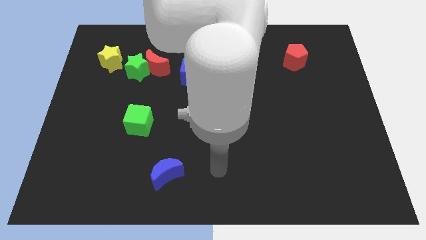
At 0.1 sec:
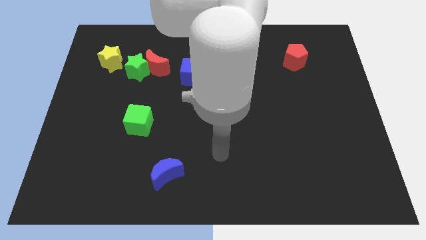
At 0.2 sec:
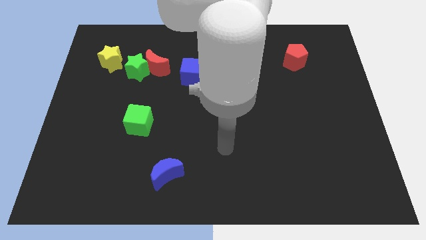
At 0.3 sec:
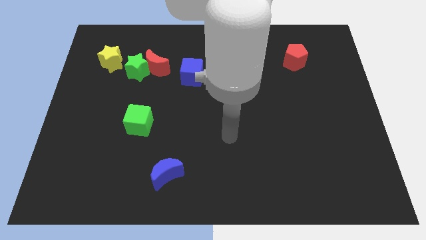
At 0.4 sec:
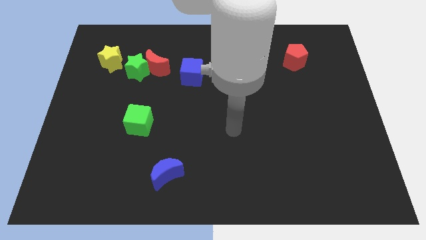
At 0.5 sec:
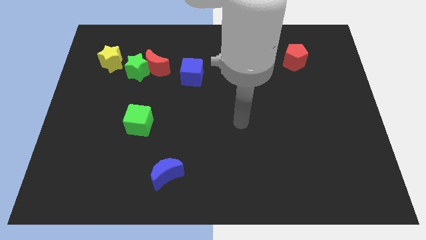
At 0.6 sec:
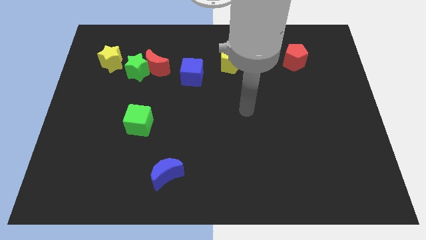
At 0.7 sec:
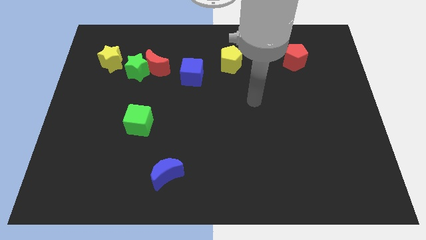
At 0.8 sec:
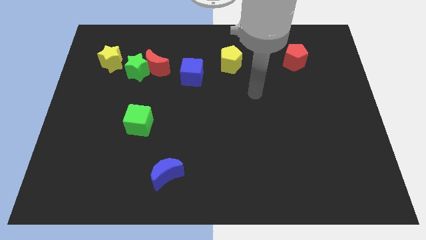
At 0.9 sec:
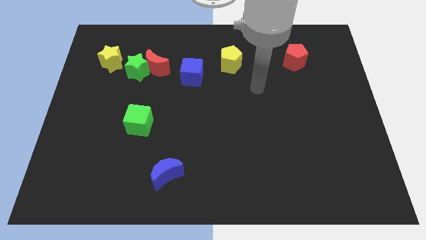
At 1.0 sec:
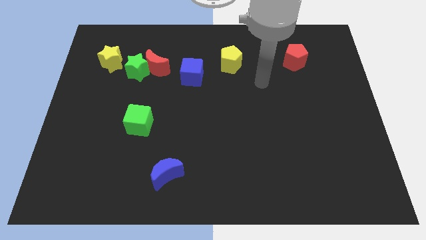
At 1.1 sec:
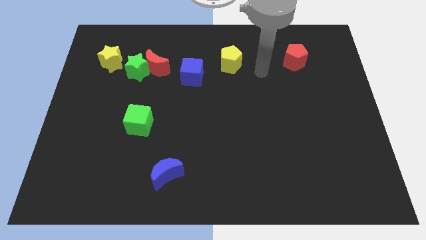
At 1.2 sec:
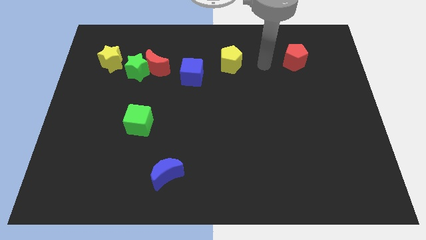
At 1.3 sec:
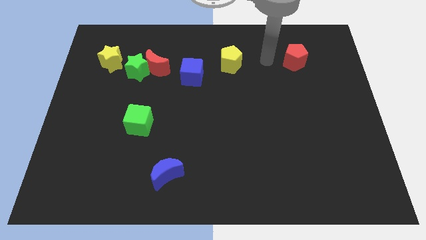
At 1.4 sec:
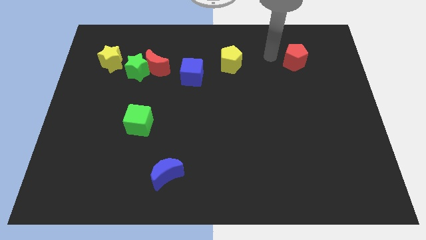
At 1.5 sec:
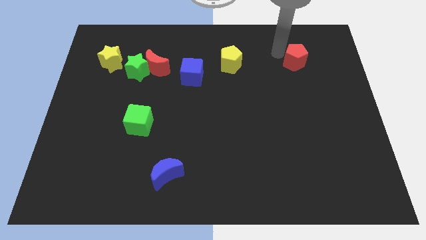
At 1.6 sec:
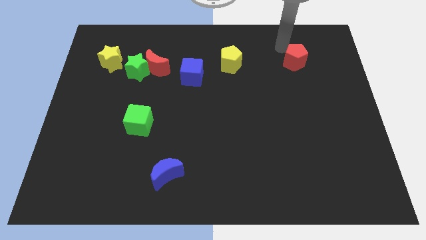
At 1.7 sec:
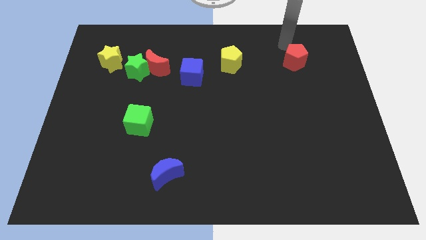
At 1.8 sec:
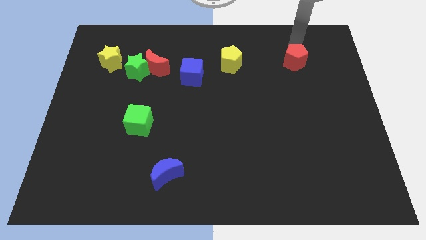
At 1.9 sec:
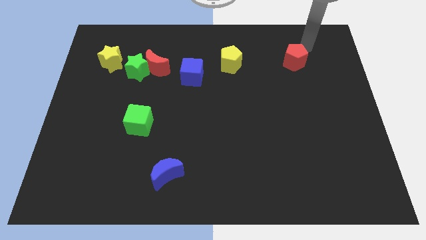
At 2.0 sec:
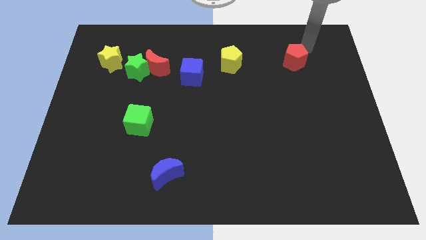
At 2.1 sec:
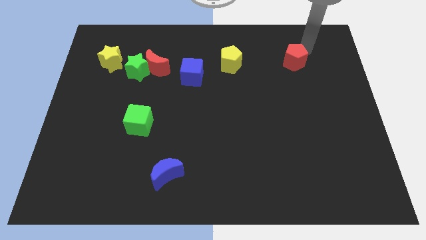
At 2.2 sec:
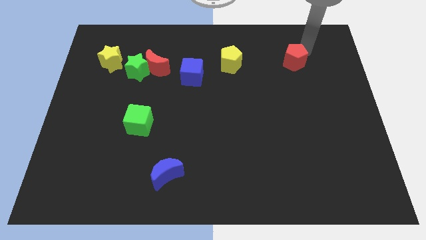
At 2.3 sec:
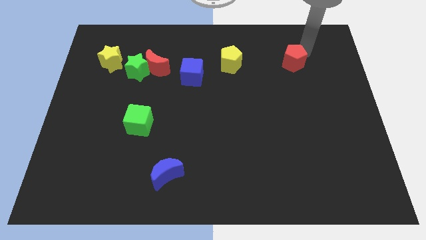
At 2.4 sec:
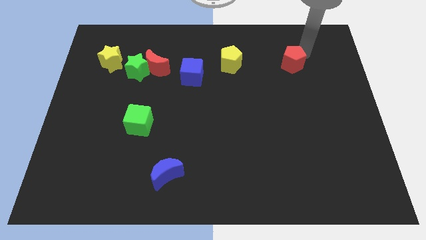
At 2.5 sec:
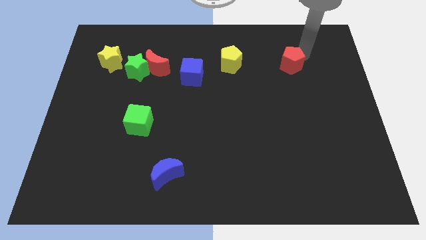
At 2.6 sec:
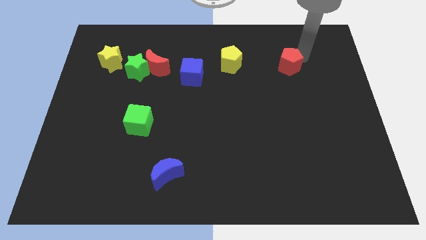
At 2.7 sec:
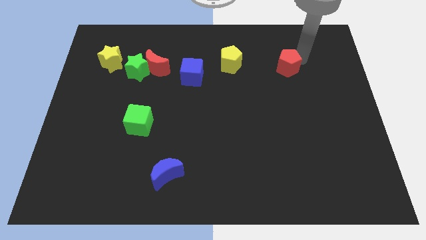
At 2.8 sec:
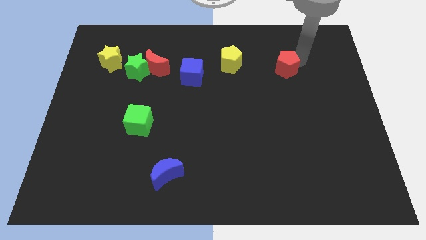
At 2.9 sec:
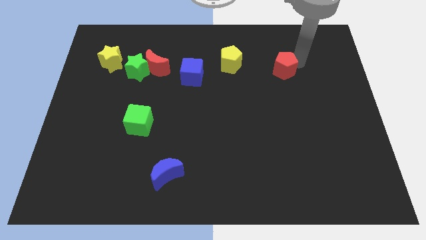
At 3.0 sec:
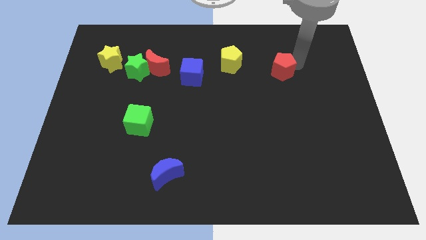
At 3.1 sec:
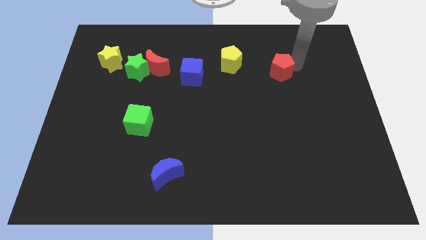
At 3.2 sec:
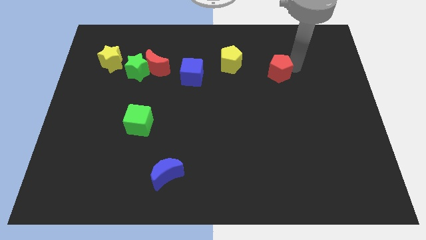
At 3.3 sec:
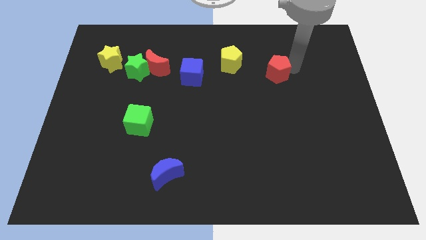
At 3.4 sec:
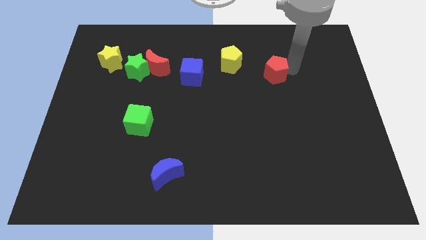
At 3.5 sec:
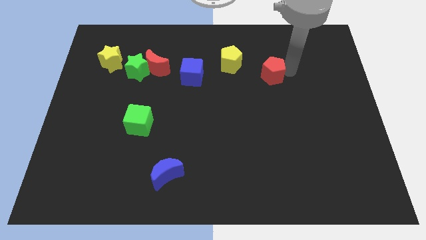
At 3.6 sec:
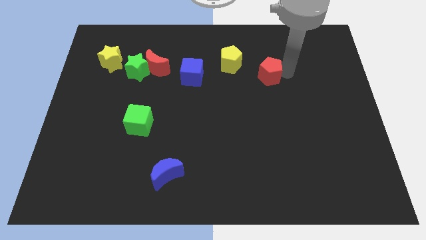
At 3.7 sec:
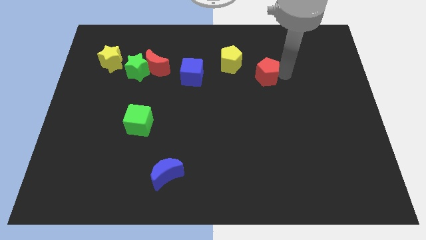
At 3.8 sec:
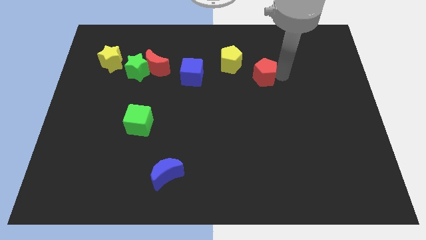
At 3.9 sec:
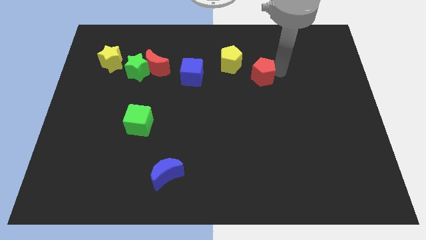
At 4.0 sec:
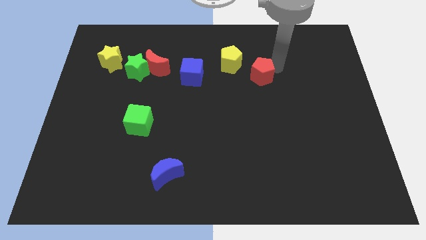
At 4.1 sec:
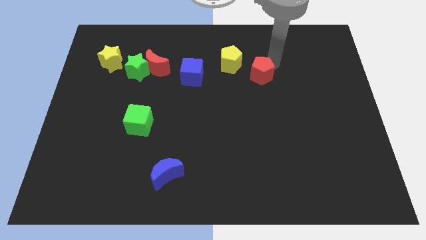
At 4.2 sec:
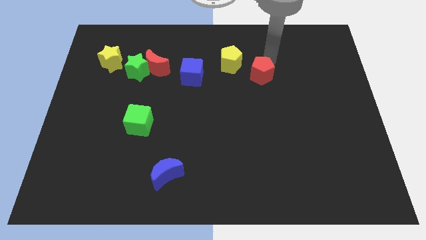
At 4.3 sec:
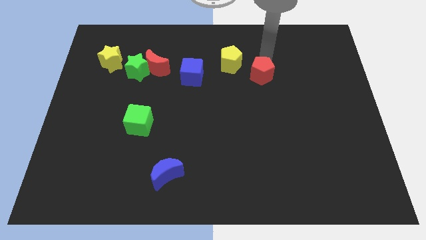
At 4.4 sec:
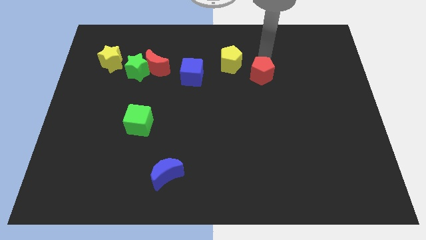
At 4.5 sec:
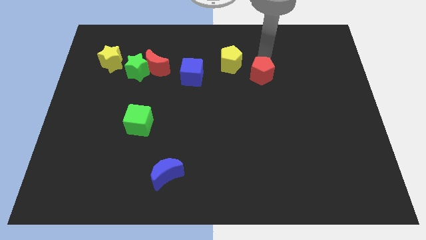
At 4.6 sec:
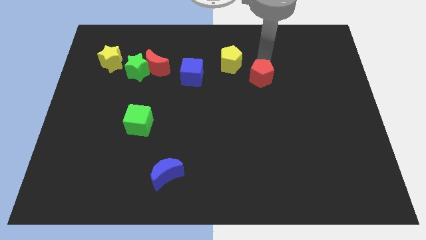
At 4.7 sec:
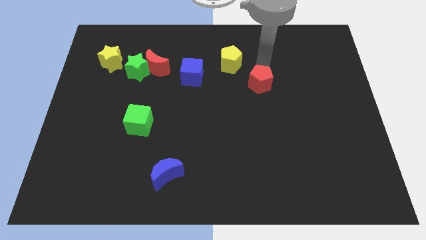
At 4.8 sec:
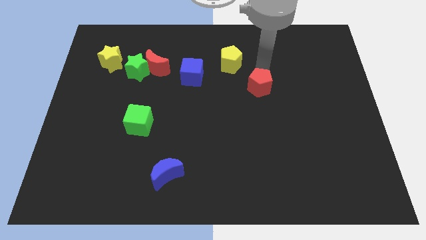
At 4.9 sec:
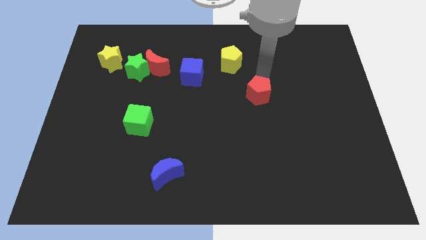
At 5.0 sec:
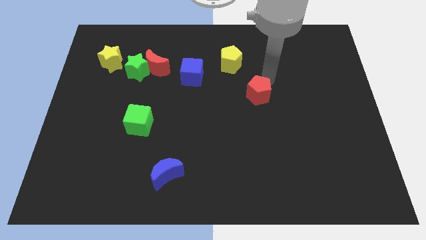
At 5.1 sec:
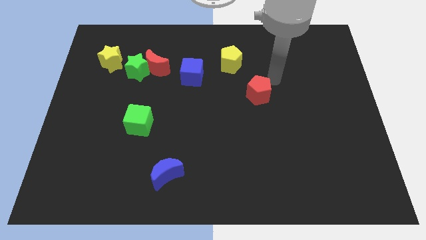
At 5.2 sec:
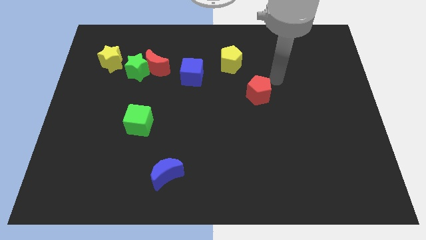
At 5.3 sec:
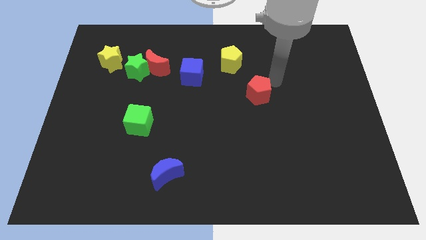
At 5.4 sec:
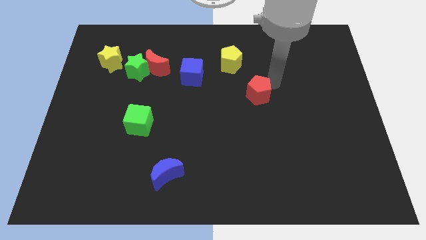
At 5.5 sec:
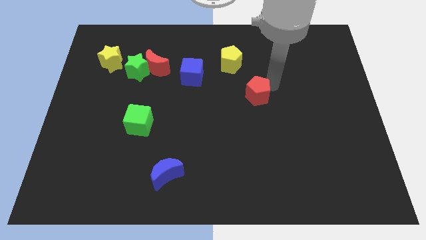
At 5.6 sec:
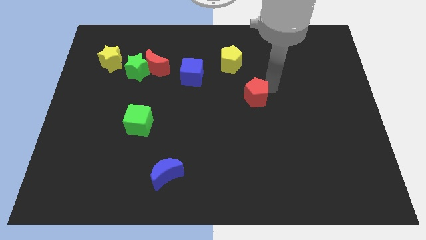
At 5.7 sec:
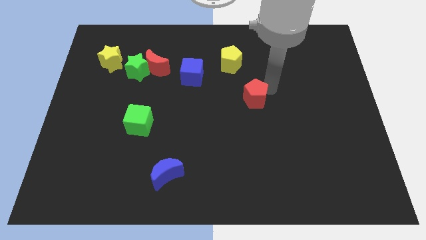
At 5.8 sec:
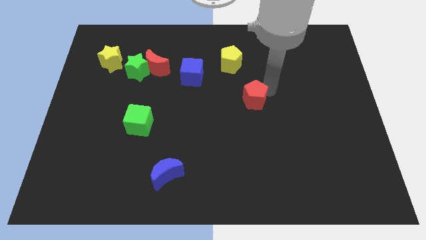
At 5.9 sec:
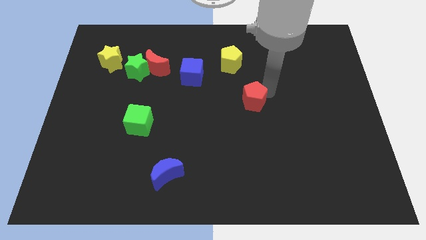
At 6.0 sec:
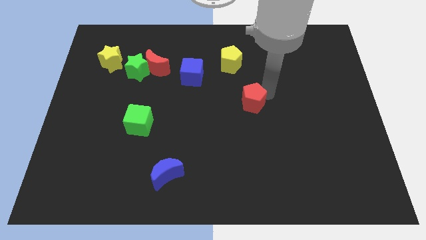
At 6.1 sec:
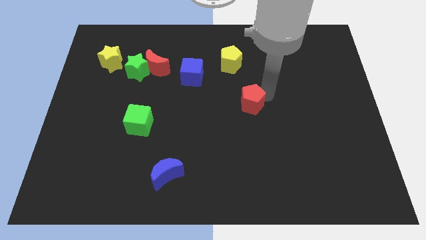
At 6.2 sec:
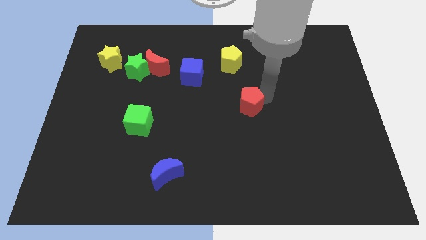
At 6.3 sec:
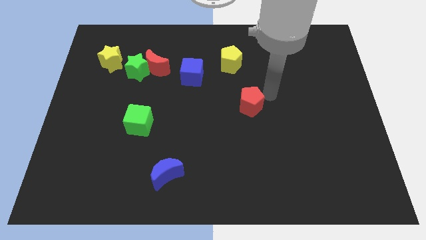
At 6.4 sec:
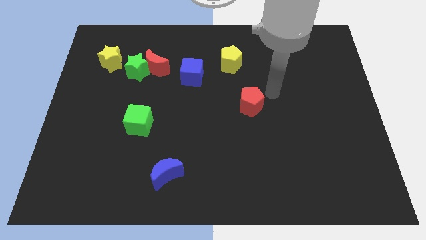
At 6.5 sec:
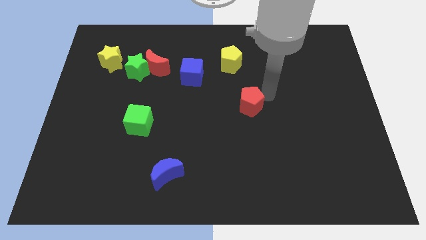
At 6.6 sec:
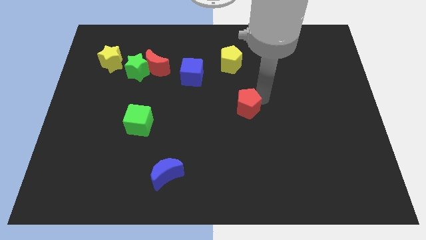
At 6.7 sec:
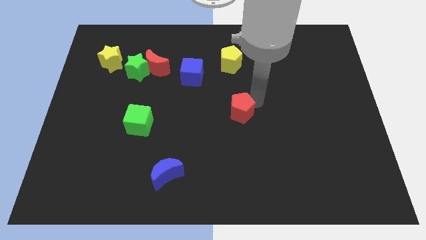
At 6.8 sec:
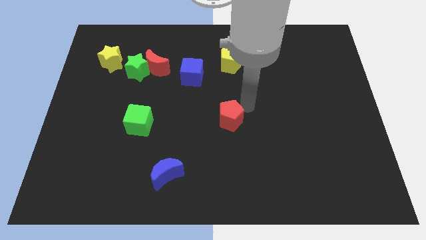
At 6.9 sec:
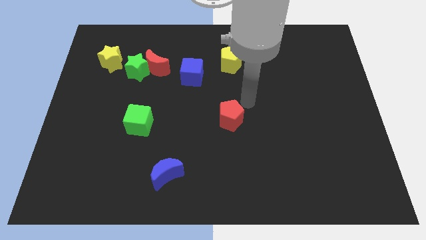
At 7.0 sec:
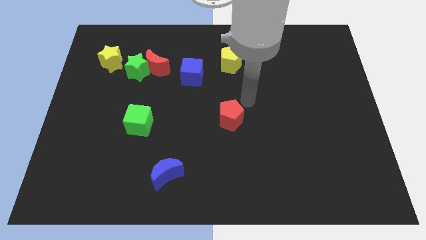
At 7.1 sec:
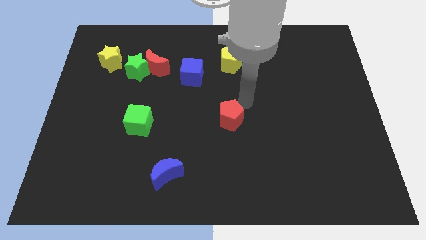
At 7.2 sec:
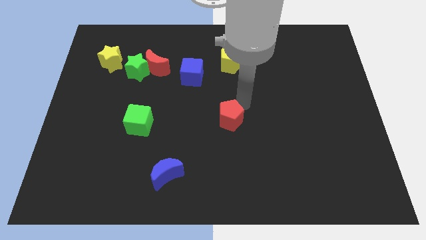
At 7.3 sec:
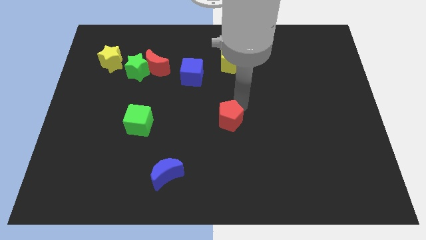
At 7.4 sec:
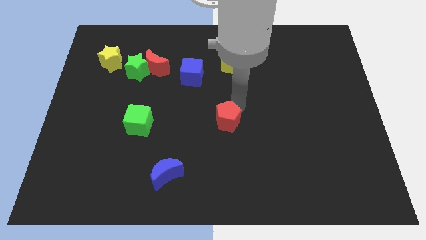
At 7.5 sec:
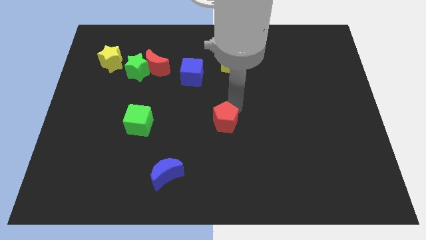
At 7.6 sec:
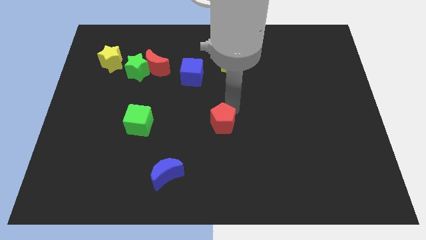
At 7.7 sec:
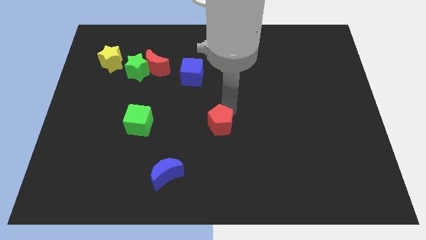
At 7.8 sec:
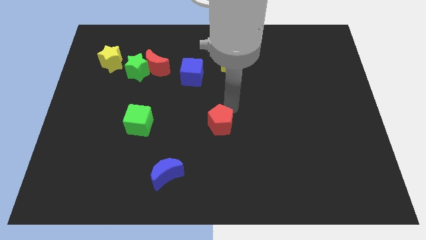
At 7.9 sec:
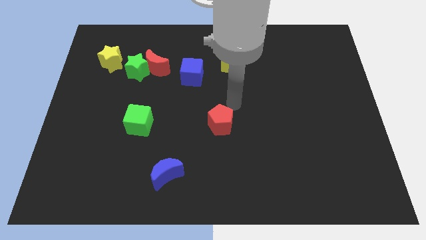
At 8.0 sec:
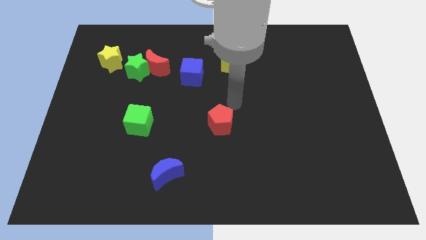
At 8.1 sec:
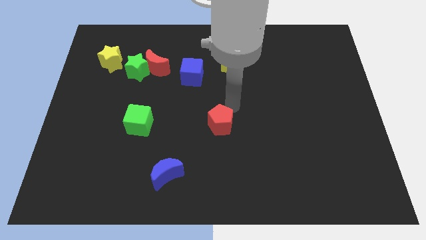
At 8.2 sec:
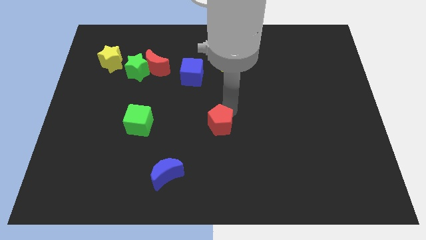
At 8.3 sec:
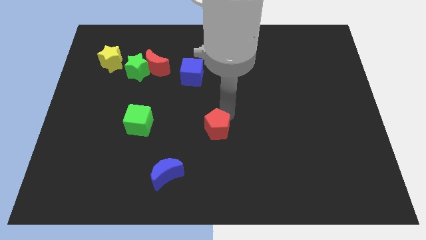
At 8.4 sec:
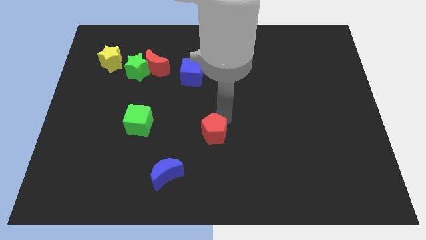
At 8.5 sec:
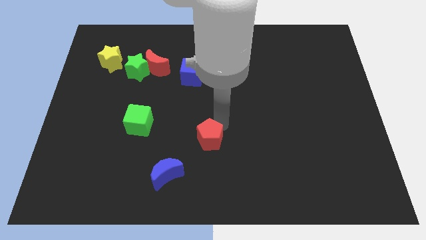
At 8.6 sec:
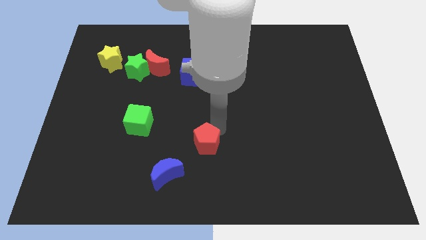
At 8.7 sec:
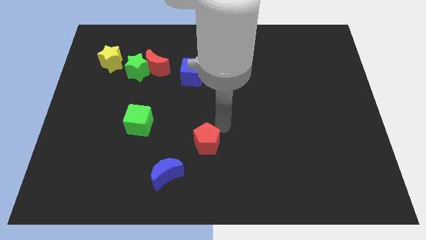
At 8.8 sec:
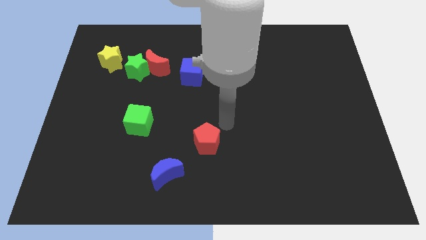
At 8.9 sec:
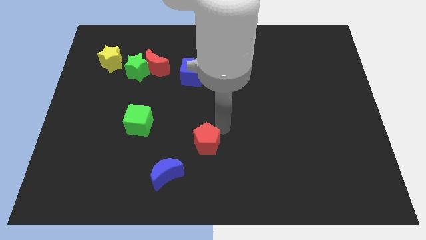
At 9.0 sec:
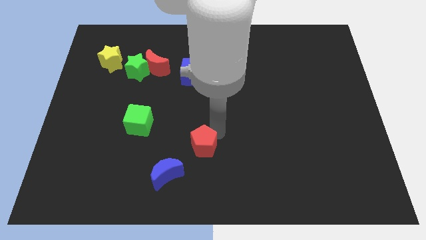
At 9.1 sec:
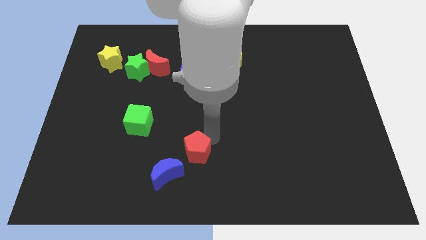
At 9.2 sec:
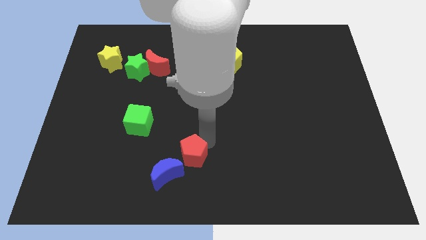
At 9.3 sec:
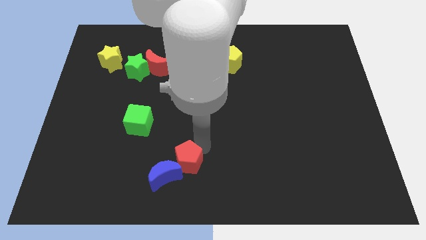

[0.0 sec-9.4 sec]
put the red pentagon towards the blue moon
